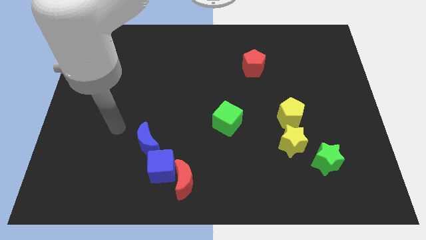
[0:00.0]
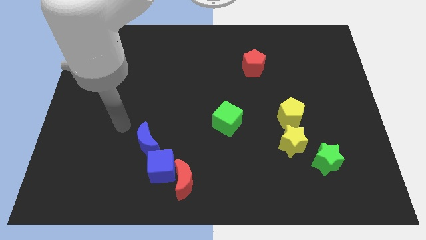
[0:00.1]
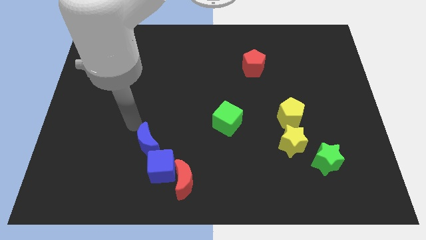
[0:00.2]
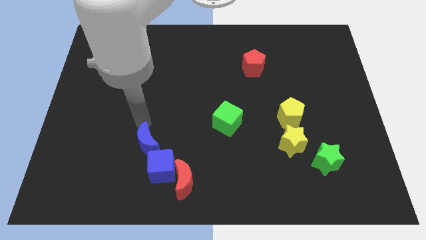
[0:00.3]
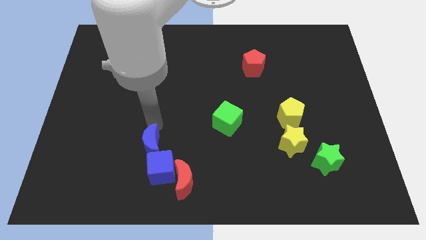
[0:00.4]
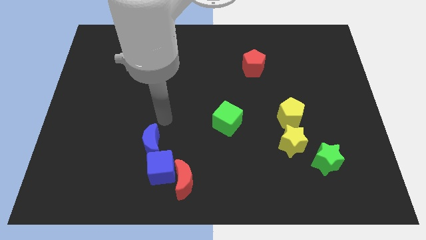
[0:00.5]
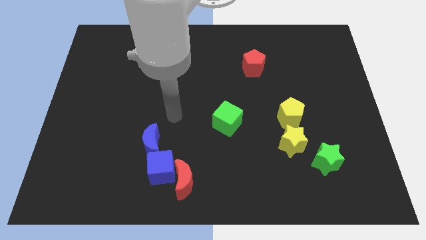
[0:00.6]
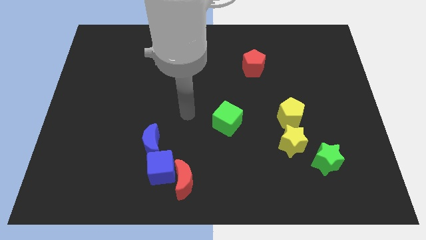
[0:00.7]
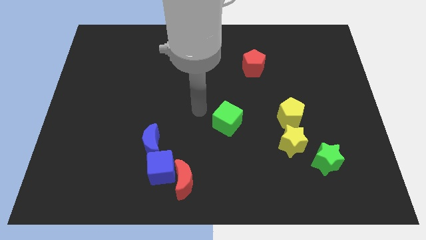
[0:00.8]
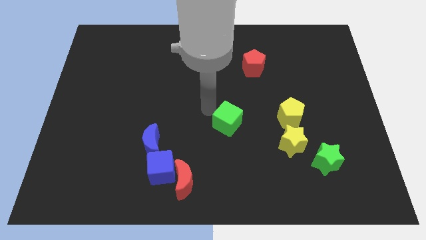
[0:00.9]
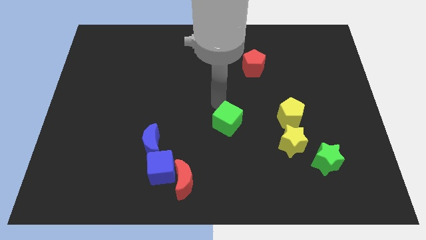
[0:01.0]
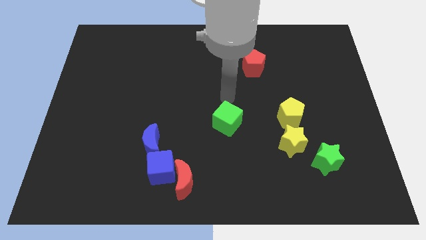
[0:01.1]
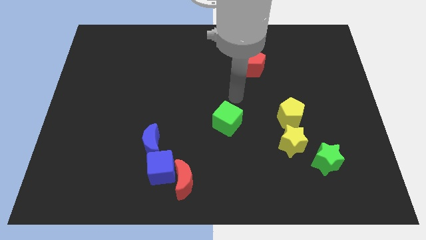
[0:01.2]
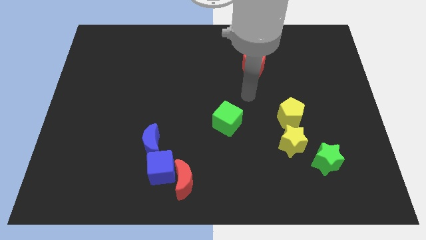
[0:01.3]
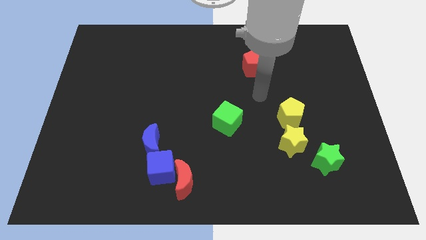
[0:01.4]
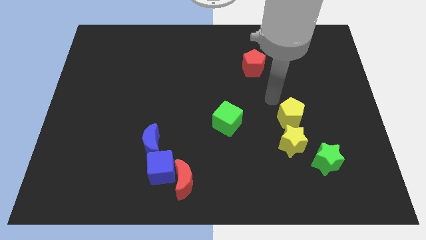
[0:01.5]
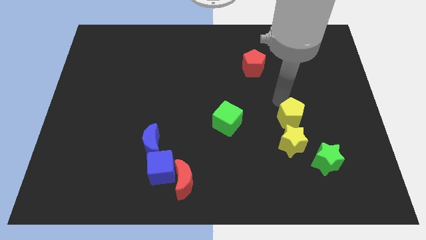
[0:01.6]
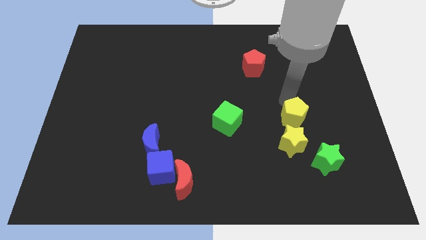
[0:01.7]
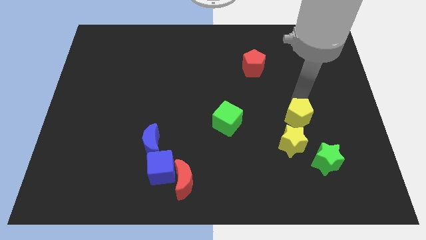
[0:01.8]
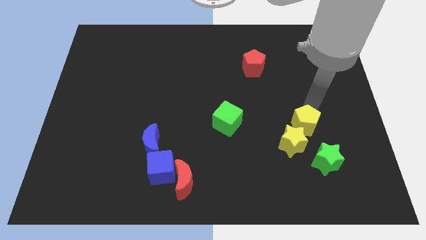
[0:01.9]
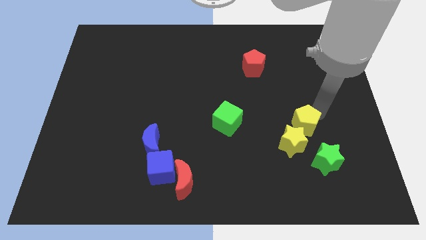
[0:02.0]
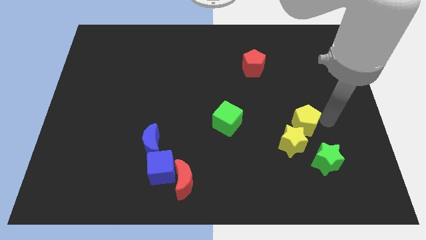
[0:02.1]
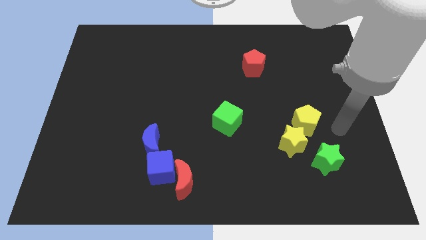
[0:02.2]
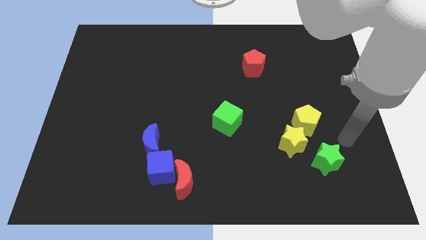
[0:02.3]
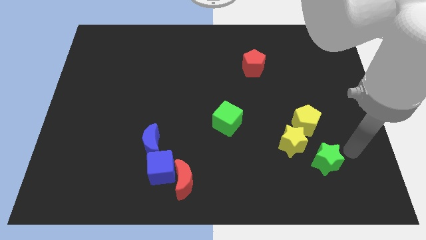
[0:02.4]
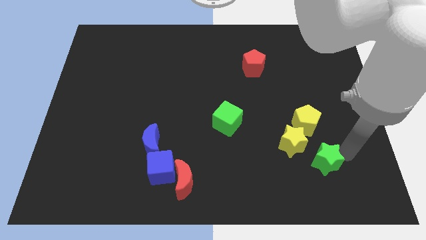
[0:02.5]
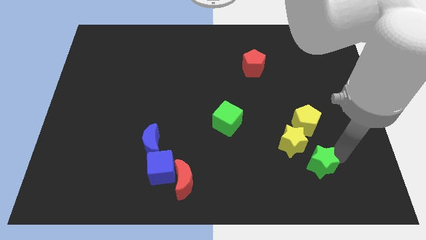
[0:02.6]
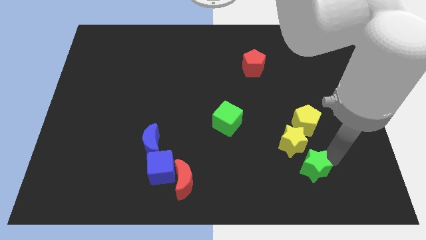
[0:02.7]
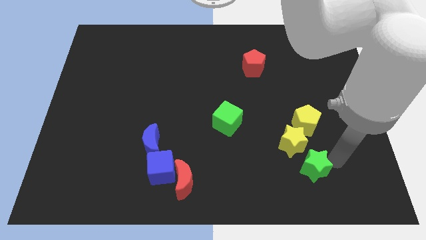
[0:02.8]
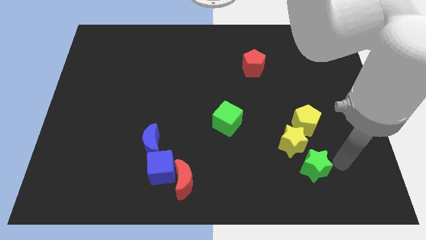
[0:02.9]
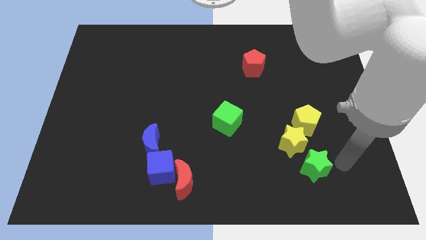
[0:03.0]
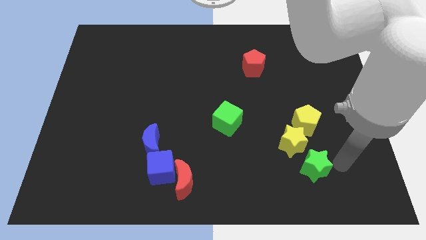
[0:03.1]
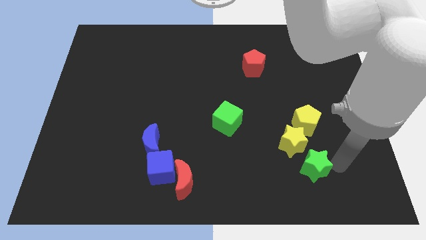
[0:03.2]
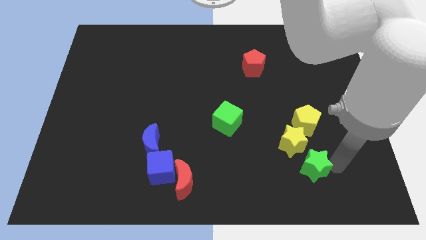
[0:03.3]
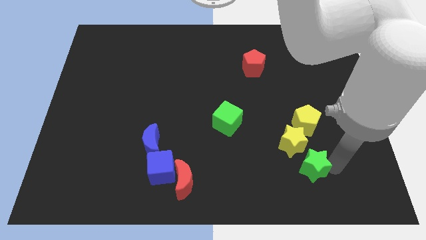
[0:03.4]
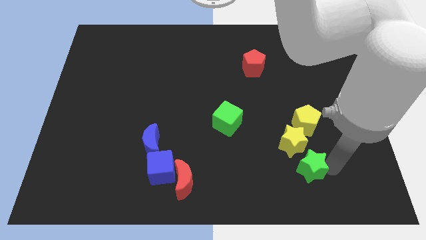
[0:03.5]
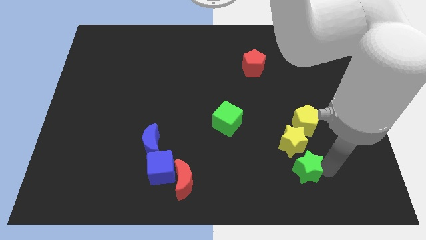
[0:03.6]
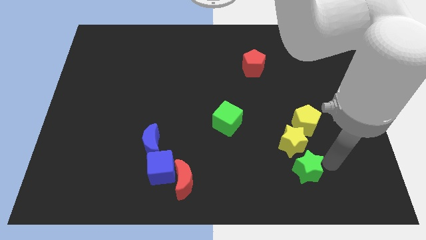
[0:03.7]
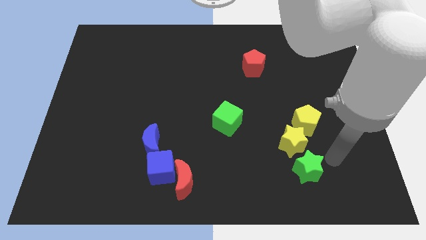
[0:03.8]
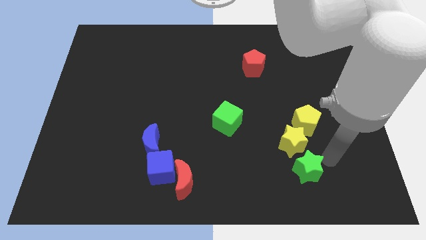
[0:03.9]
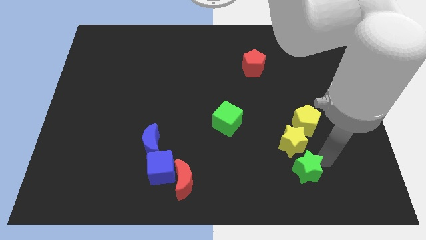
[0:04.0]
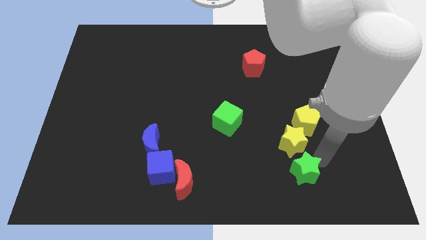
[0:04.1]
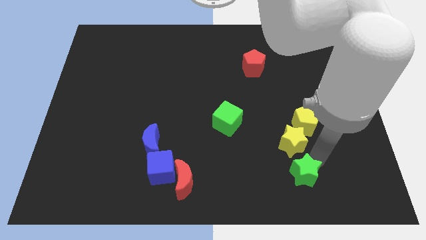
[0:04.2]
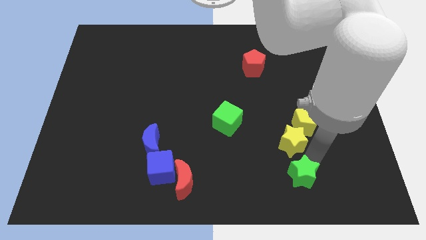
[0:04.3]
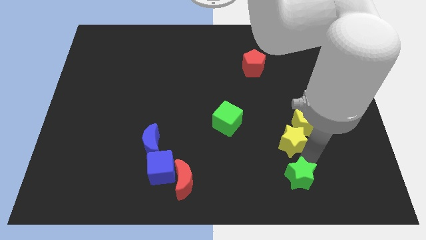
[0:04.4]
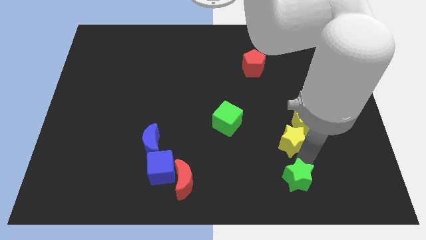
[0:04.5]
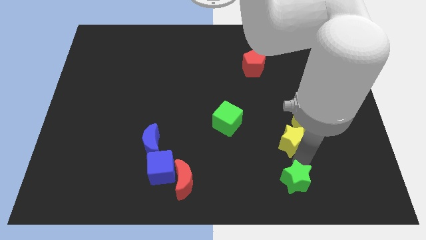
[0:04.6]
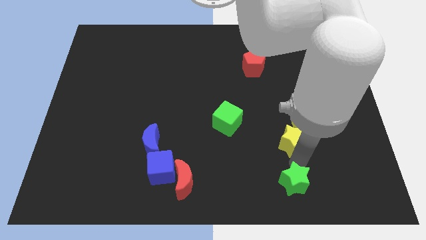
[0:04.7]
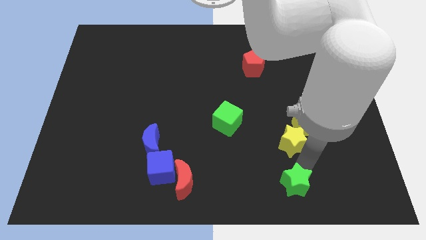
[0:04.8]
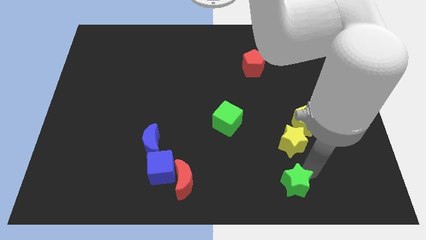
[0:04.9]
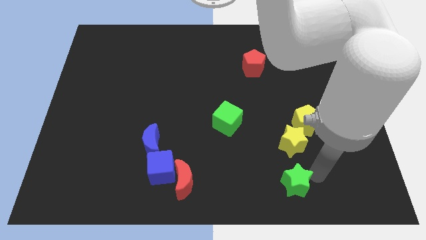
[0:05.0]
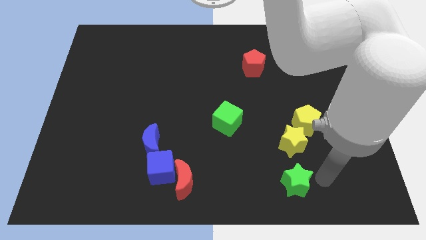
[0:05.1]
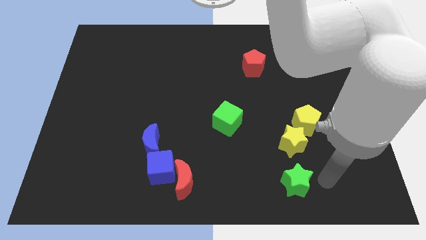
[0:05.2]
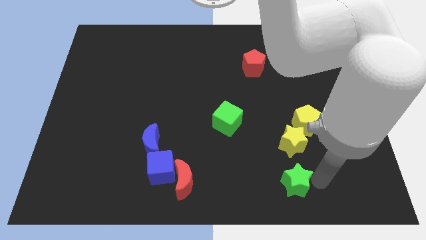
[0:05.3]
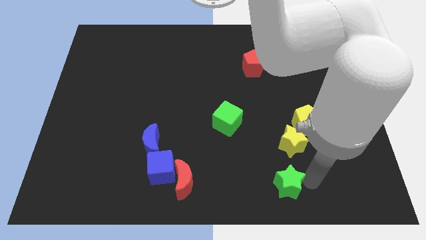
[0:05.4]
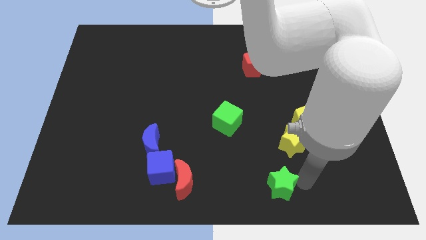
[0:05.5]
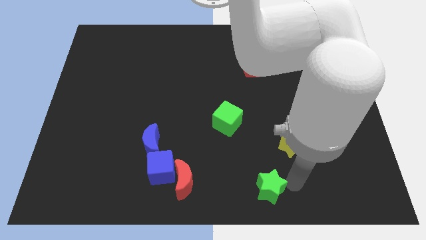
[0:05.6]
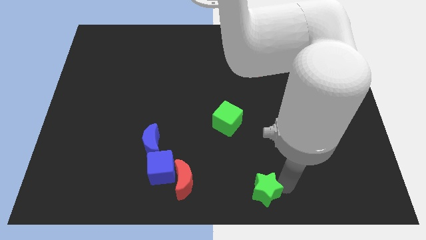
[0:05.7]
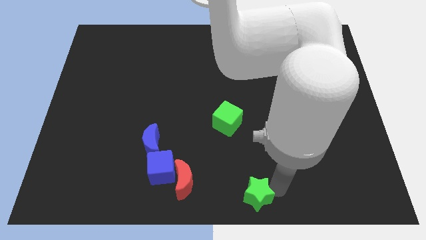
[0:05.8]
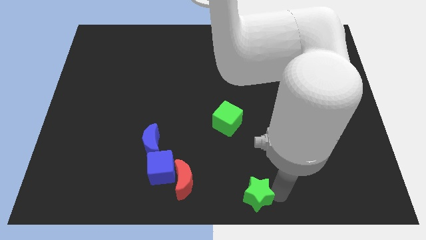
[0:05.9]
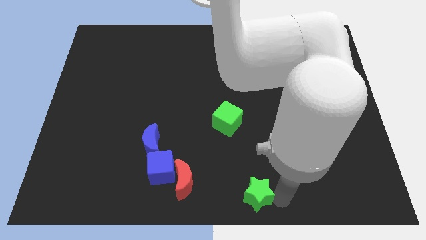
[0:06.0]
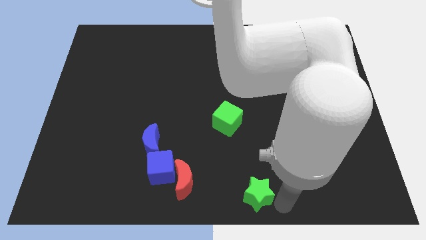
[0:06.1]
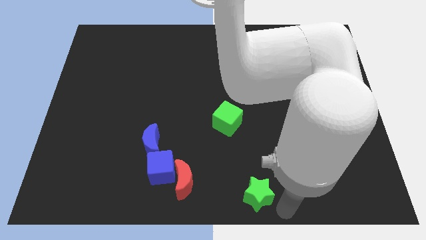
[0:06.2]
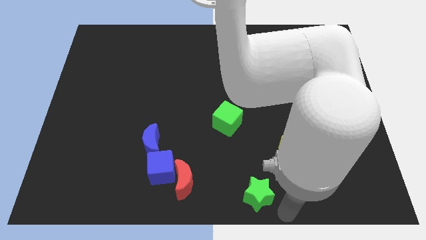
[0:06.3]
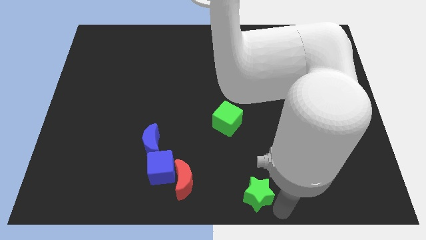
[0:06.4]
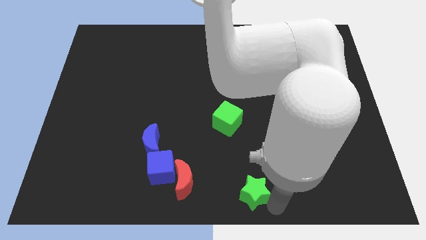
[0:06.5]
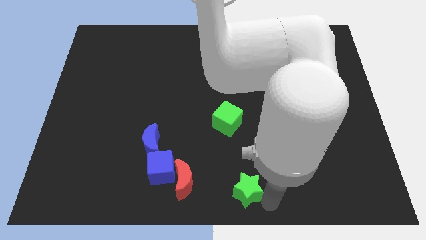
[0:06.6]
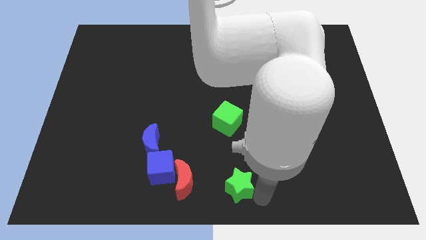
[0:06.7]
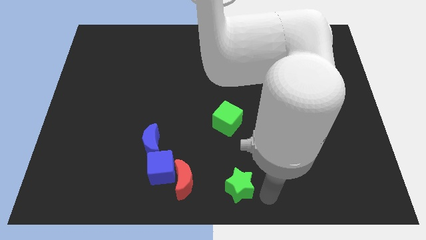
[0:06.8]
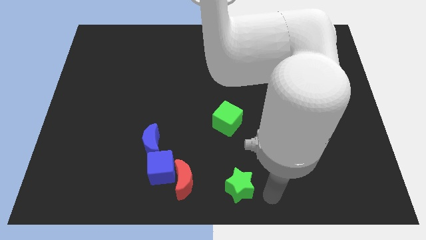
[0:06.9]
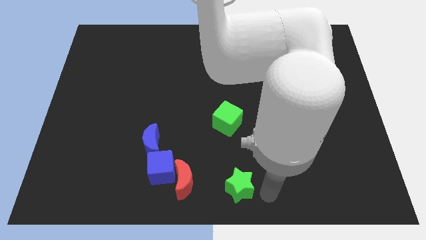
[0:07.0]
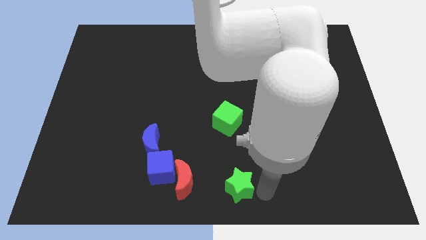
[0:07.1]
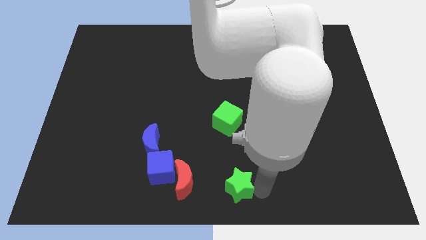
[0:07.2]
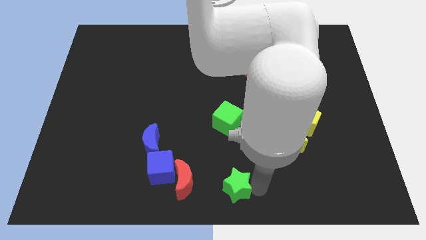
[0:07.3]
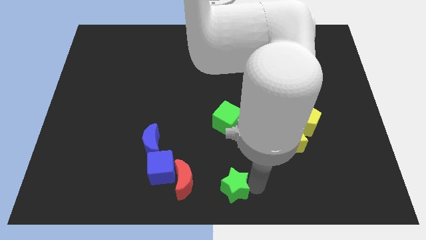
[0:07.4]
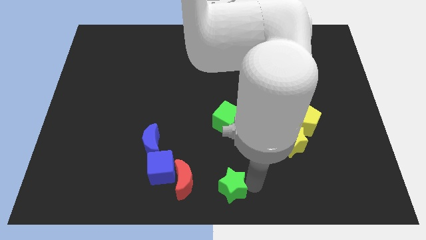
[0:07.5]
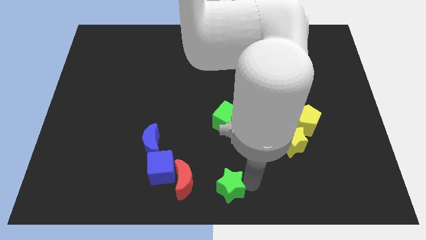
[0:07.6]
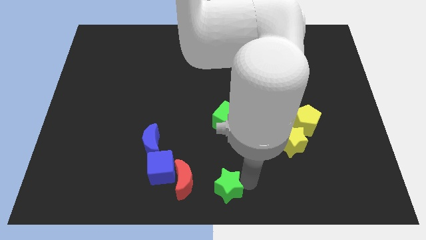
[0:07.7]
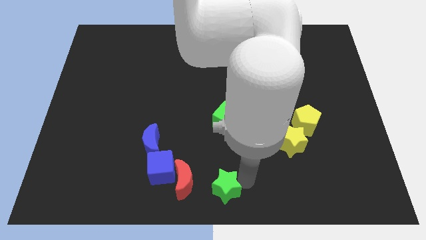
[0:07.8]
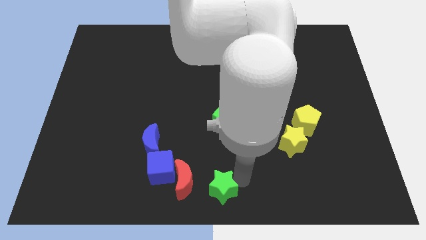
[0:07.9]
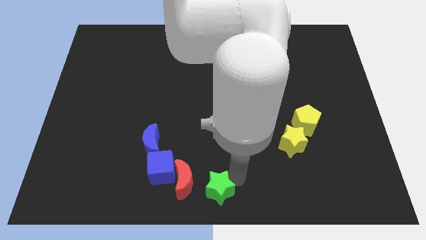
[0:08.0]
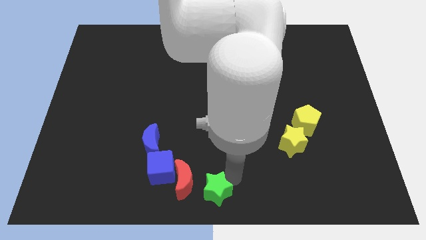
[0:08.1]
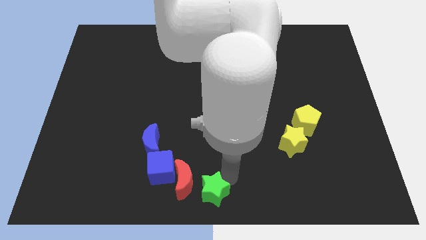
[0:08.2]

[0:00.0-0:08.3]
put the green star next to the red moon
